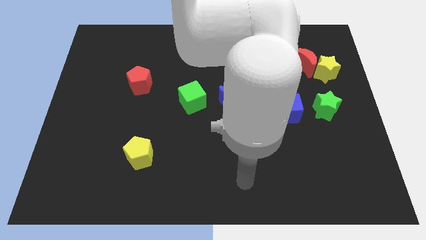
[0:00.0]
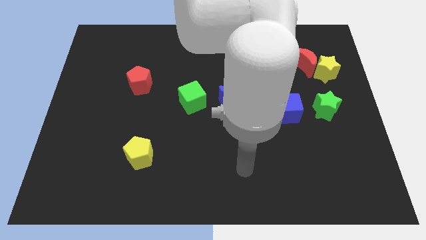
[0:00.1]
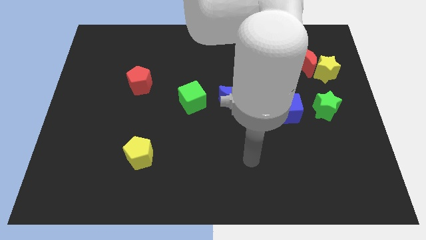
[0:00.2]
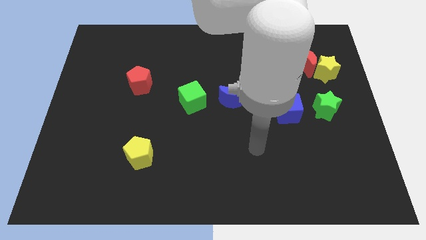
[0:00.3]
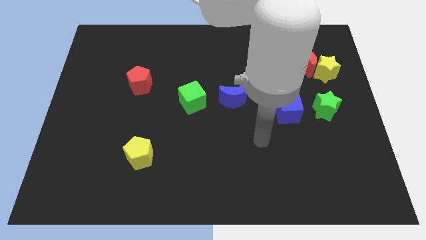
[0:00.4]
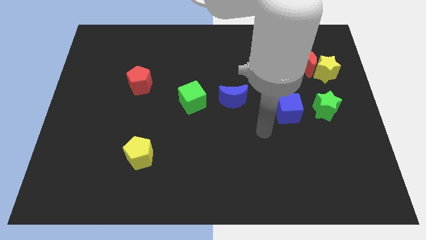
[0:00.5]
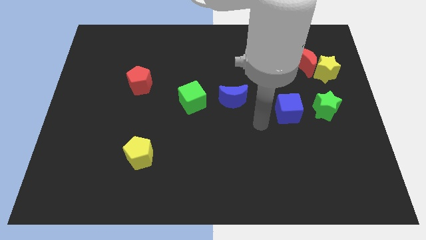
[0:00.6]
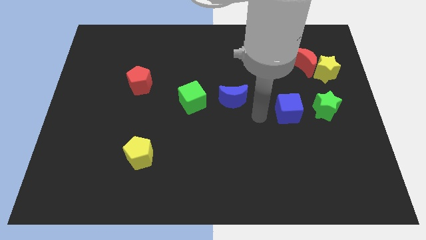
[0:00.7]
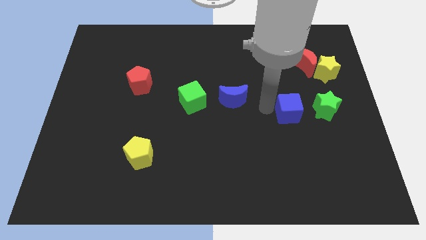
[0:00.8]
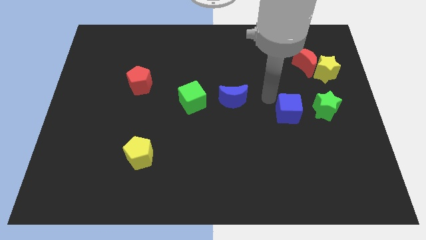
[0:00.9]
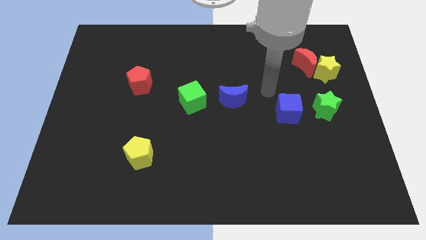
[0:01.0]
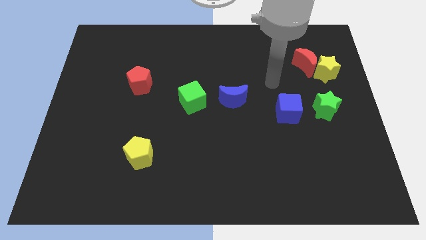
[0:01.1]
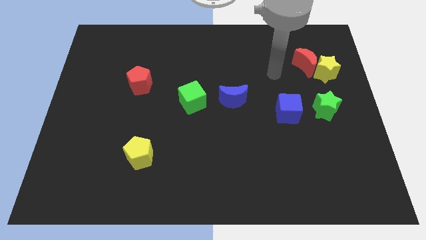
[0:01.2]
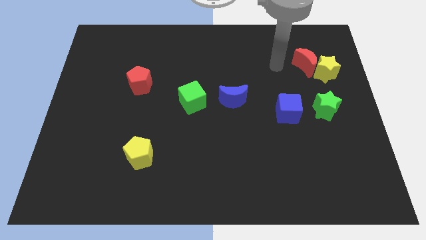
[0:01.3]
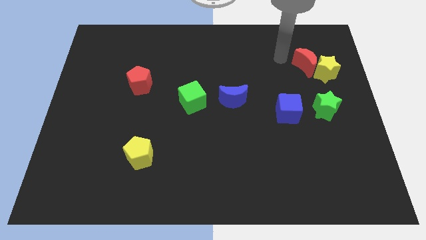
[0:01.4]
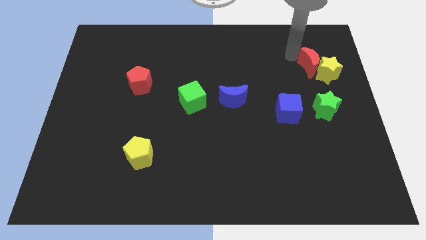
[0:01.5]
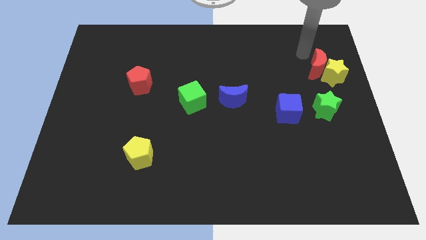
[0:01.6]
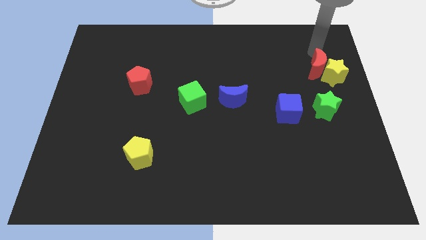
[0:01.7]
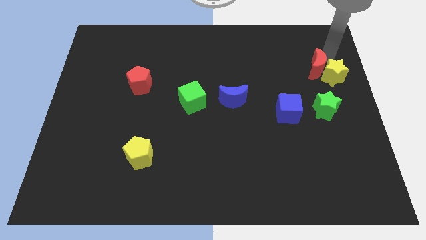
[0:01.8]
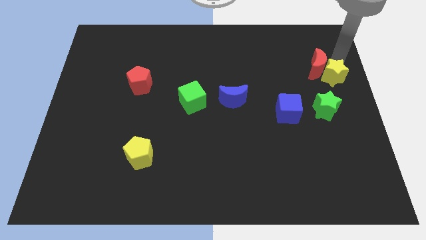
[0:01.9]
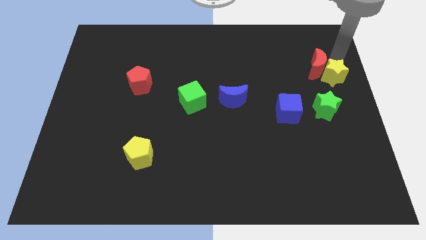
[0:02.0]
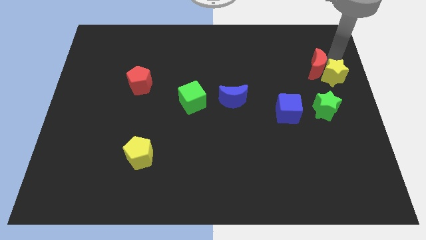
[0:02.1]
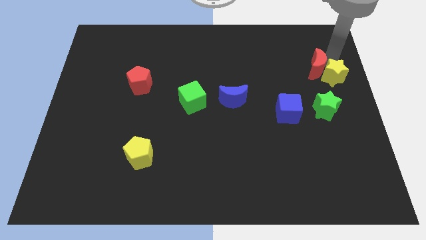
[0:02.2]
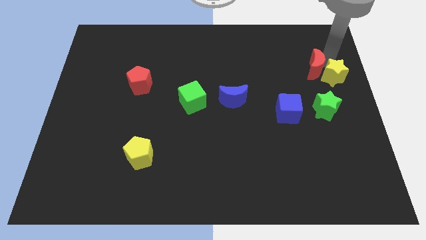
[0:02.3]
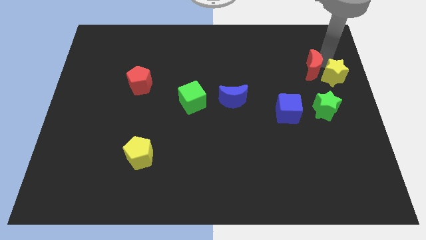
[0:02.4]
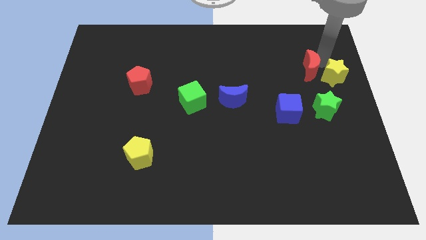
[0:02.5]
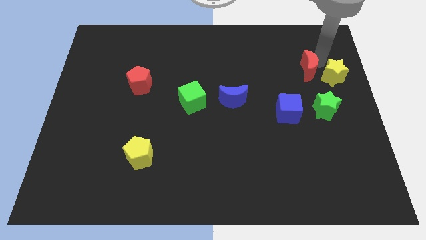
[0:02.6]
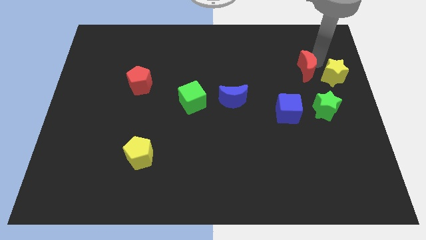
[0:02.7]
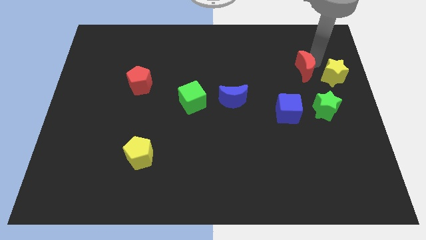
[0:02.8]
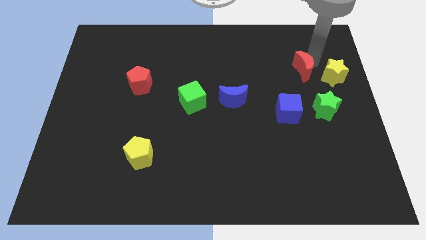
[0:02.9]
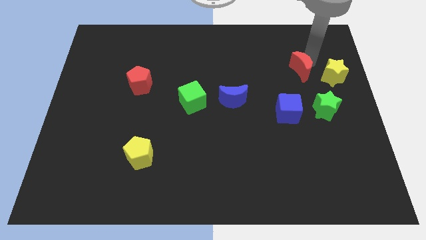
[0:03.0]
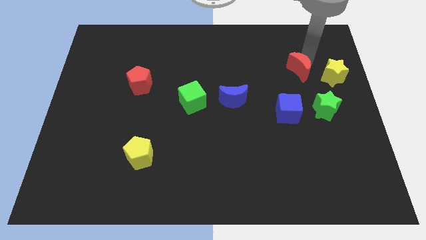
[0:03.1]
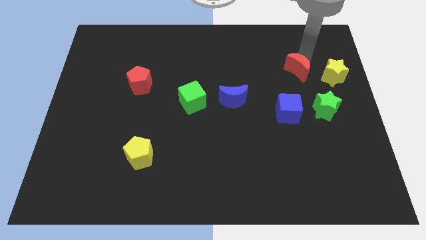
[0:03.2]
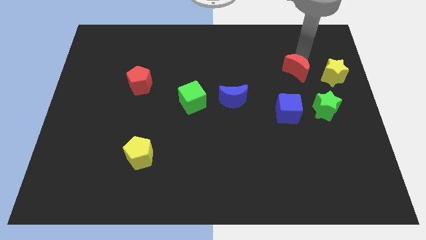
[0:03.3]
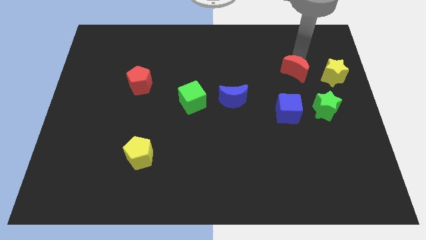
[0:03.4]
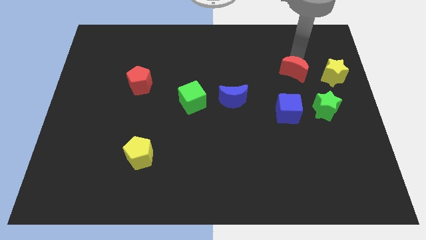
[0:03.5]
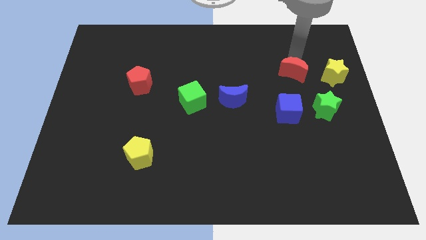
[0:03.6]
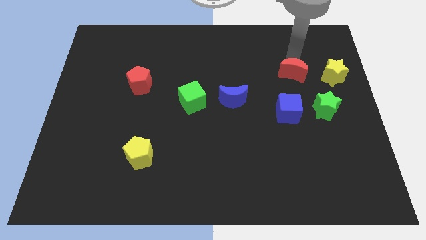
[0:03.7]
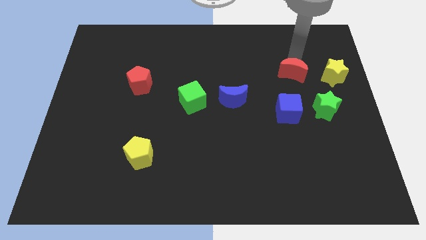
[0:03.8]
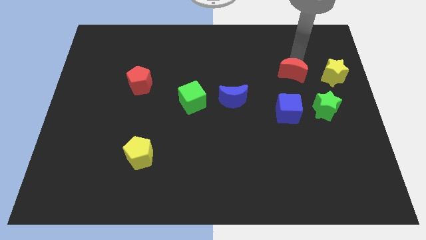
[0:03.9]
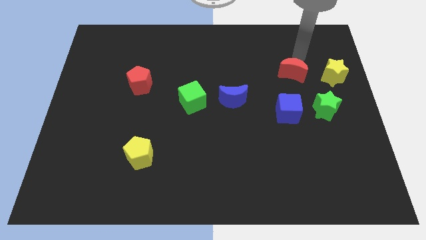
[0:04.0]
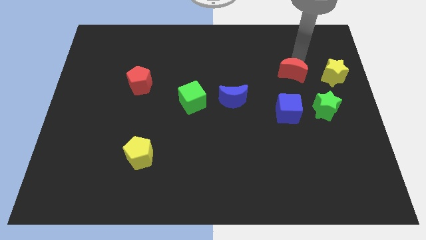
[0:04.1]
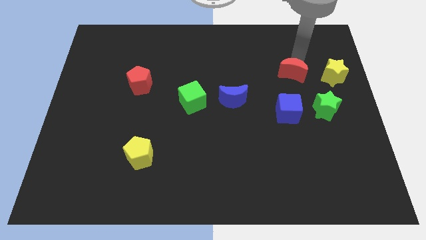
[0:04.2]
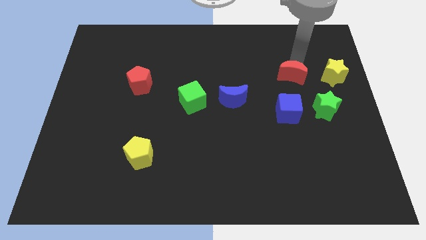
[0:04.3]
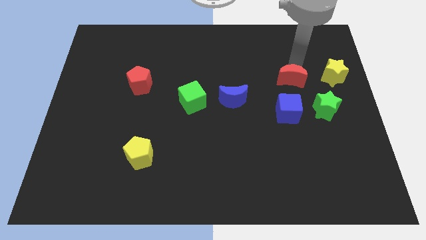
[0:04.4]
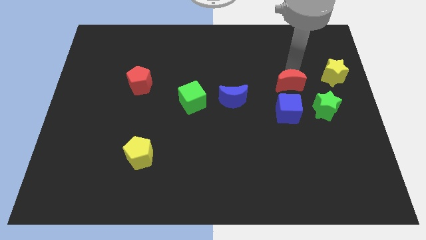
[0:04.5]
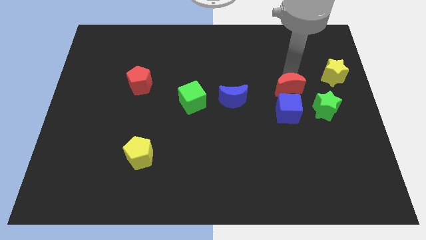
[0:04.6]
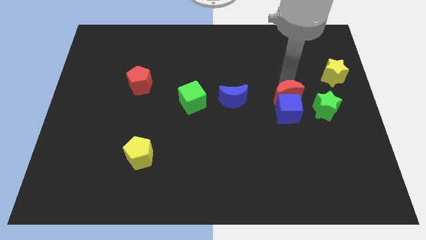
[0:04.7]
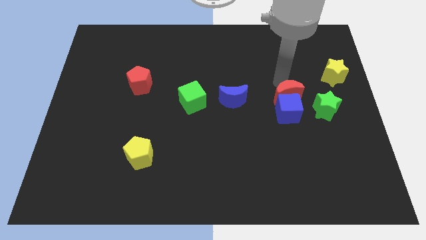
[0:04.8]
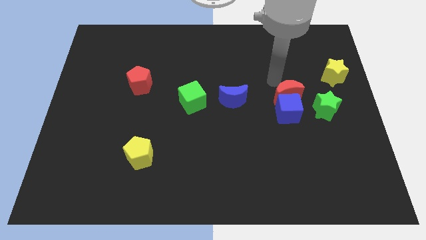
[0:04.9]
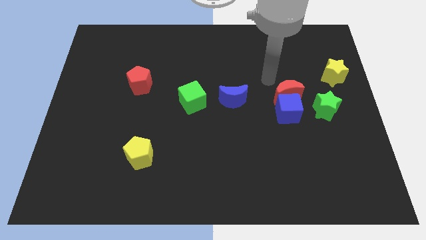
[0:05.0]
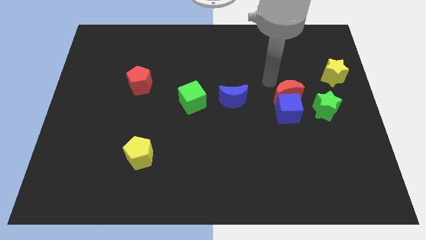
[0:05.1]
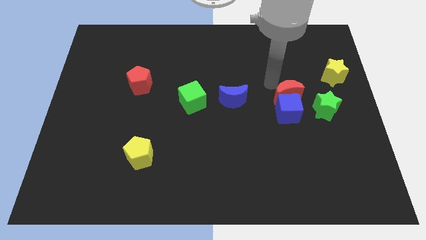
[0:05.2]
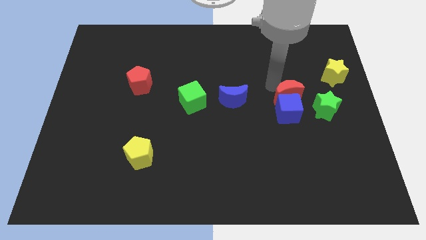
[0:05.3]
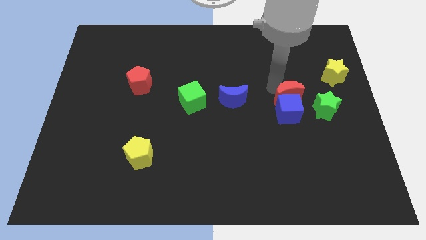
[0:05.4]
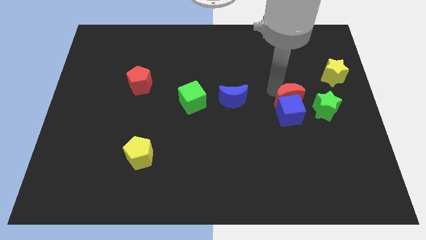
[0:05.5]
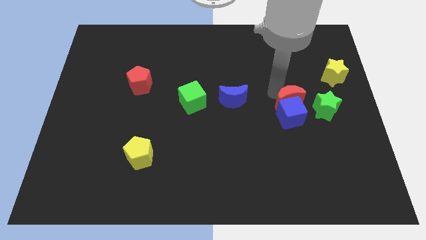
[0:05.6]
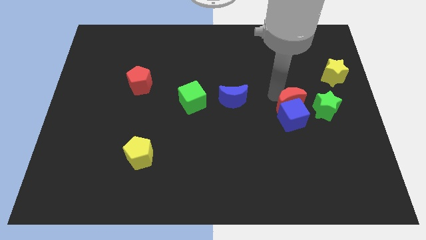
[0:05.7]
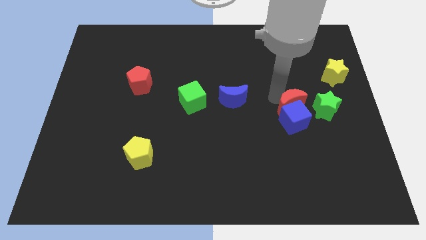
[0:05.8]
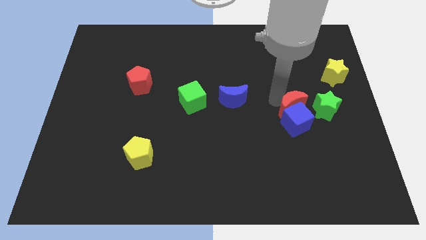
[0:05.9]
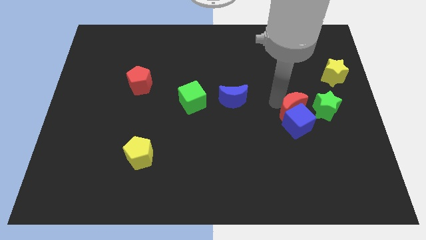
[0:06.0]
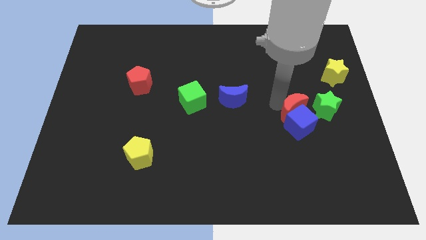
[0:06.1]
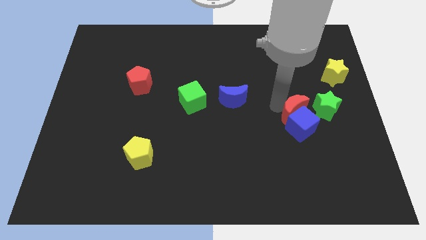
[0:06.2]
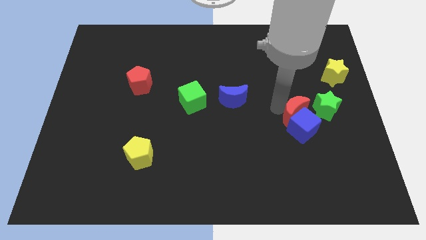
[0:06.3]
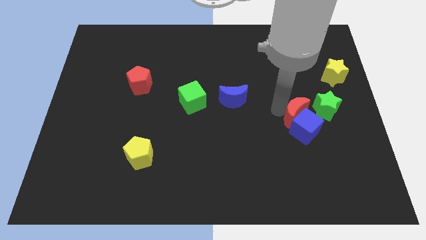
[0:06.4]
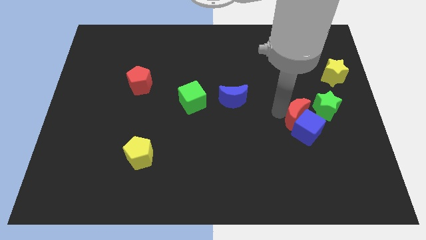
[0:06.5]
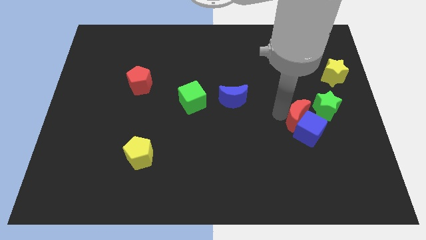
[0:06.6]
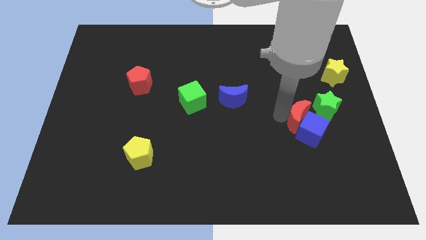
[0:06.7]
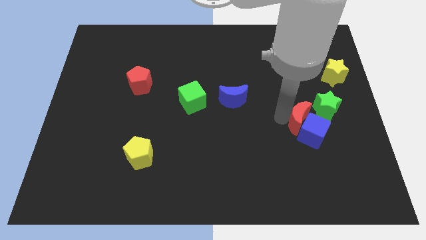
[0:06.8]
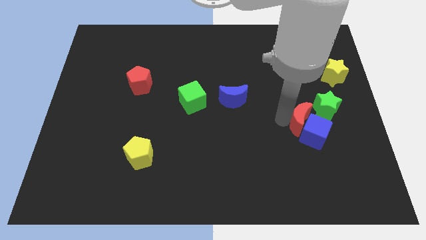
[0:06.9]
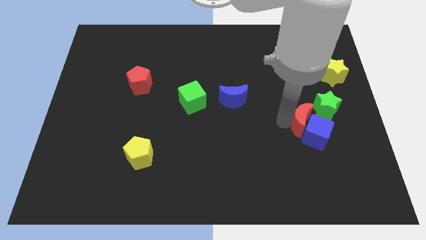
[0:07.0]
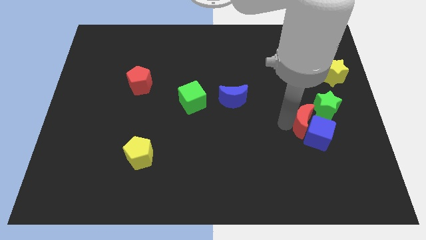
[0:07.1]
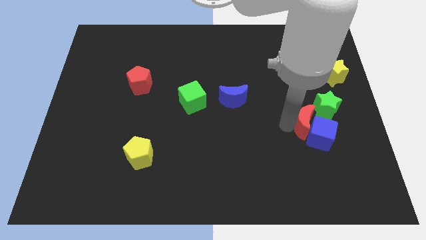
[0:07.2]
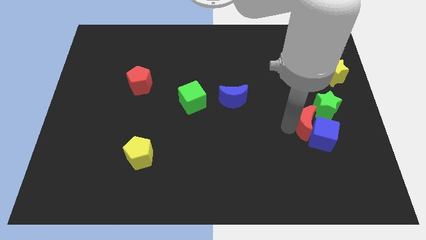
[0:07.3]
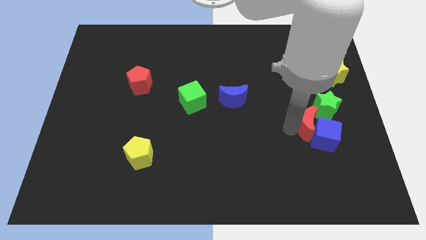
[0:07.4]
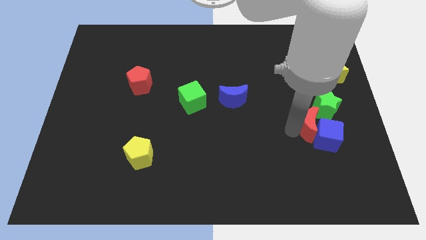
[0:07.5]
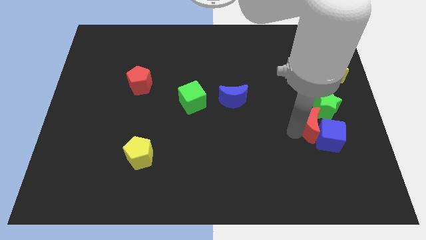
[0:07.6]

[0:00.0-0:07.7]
slide the red moon downwards

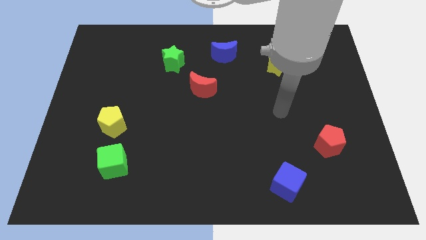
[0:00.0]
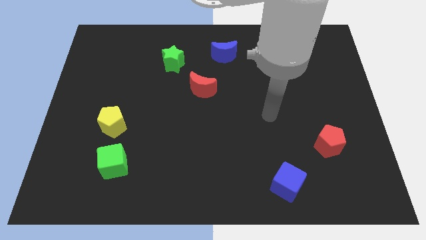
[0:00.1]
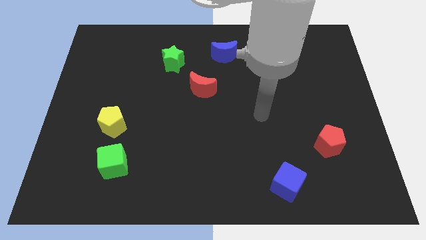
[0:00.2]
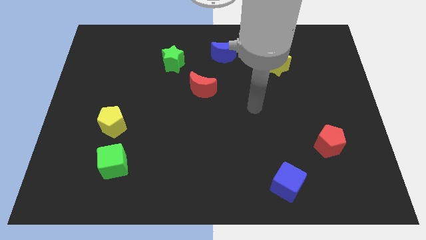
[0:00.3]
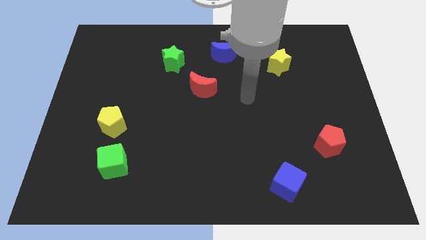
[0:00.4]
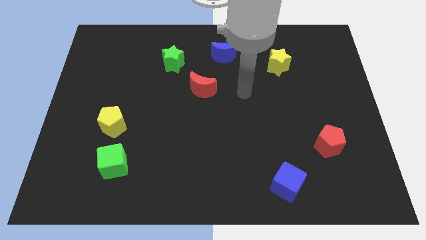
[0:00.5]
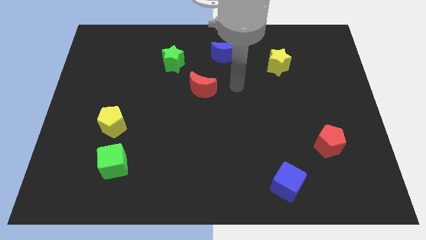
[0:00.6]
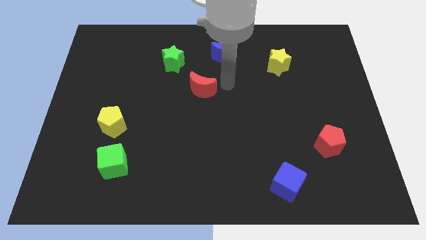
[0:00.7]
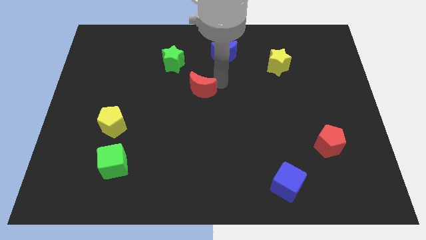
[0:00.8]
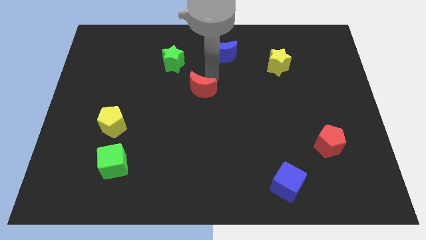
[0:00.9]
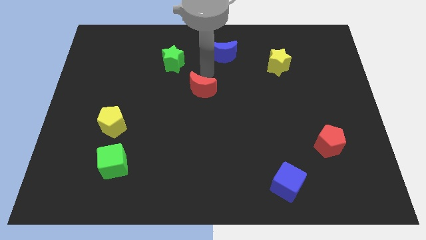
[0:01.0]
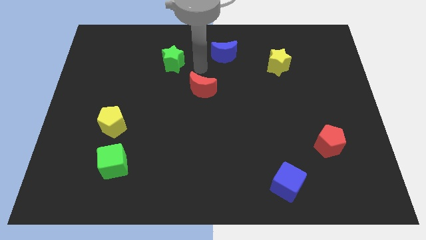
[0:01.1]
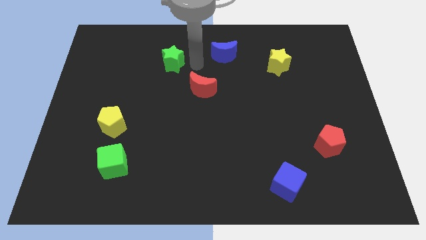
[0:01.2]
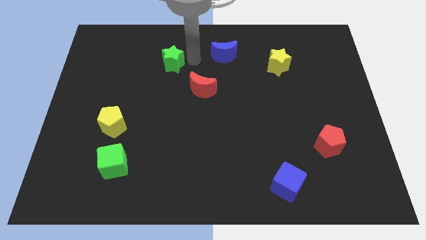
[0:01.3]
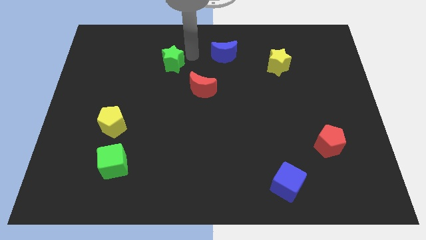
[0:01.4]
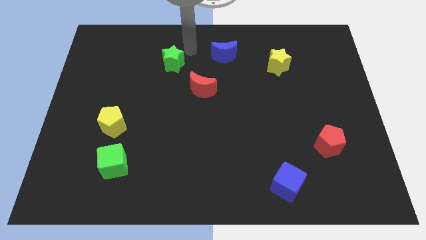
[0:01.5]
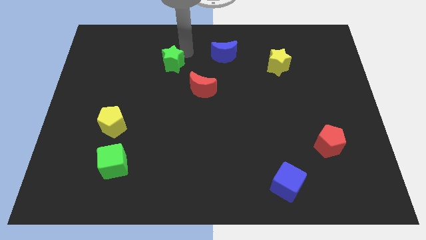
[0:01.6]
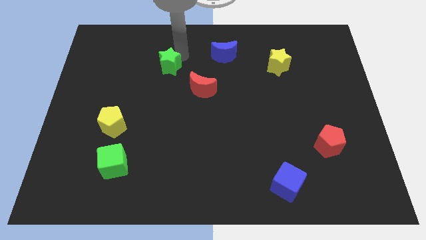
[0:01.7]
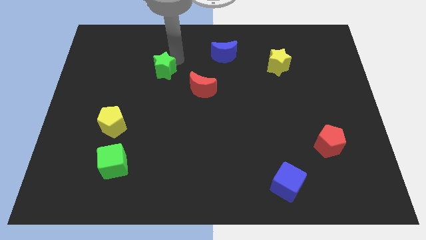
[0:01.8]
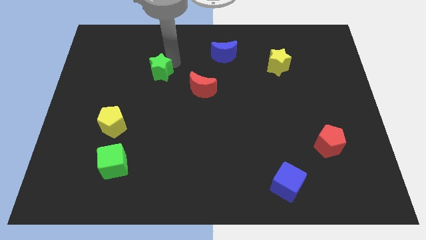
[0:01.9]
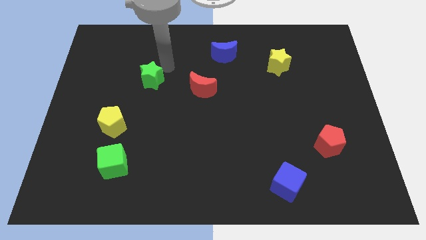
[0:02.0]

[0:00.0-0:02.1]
slightly slide the green star downwards and left
